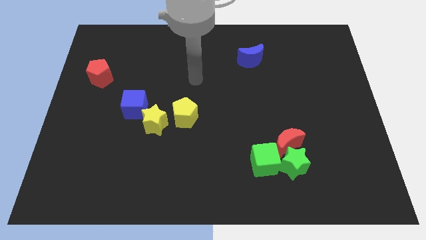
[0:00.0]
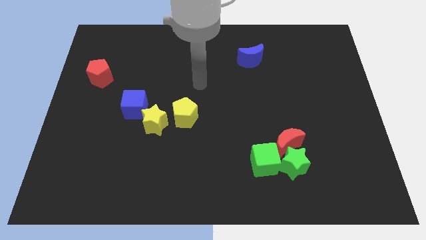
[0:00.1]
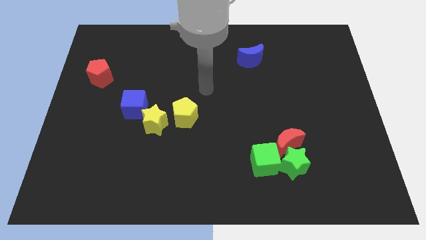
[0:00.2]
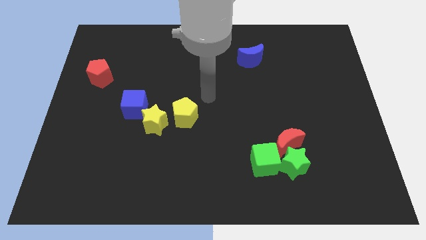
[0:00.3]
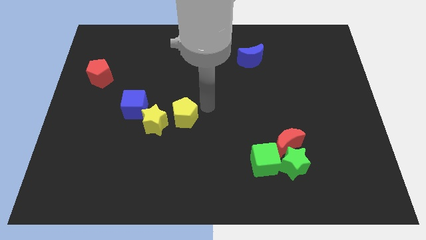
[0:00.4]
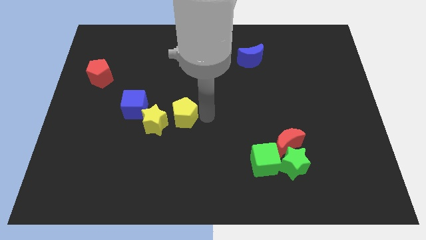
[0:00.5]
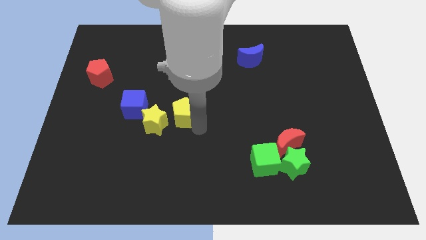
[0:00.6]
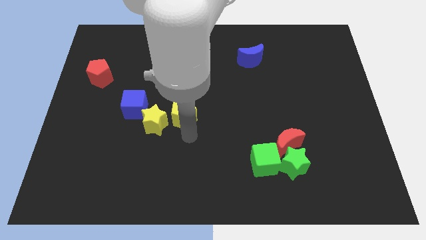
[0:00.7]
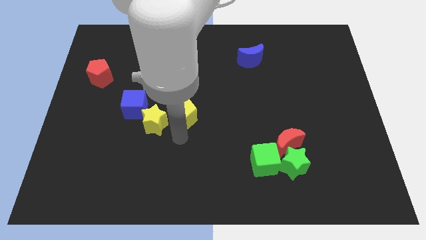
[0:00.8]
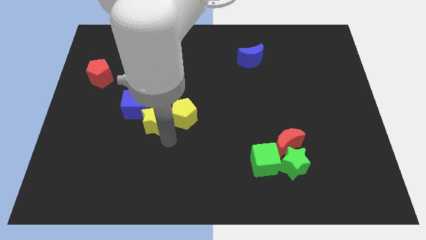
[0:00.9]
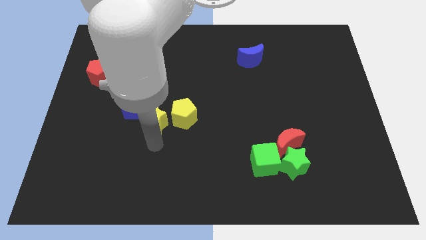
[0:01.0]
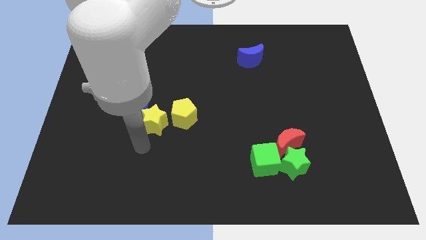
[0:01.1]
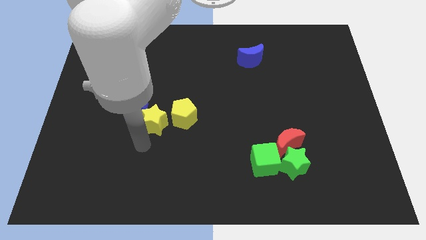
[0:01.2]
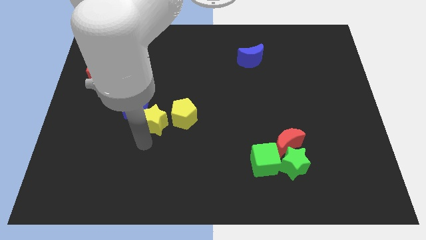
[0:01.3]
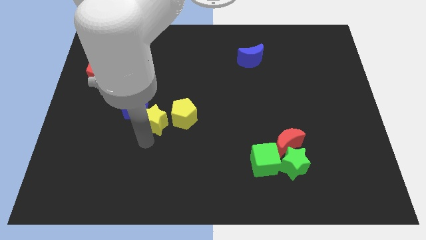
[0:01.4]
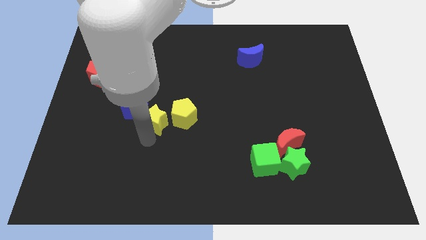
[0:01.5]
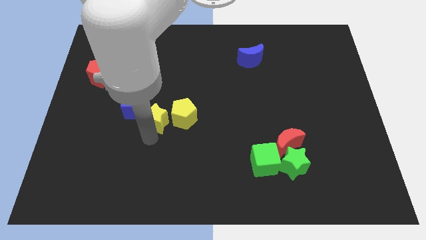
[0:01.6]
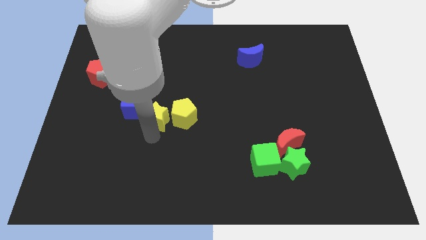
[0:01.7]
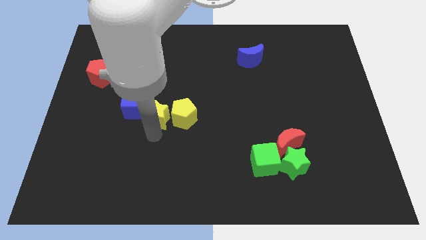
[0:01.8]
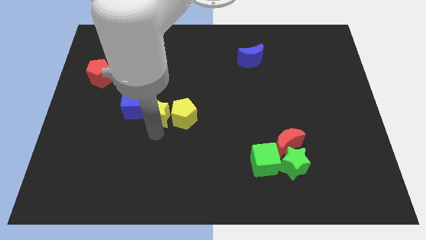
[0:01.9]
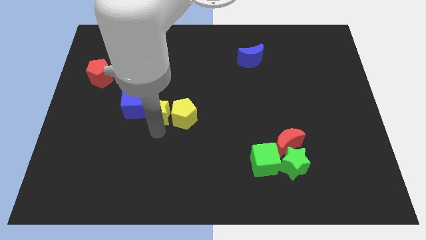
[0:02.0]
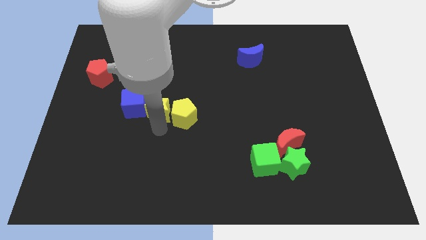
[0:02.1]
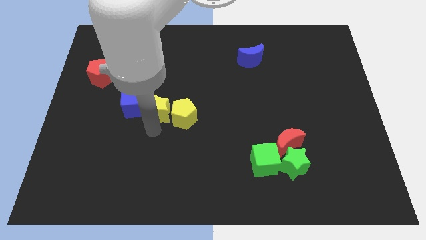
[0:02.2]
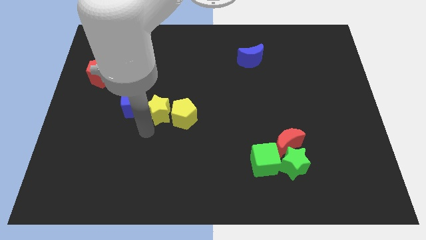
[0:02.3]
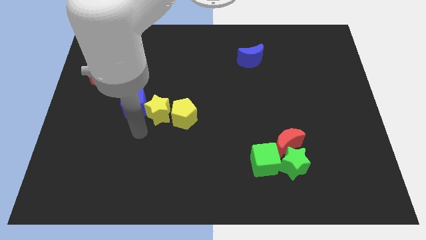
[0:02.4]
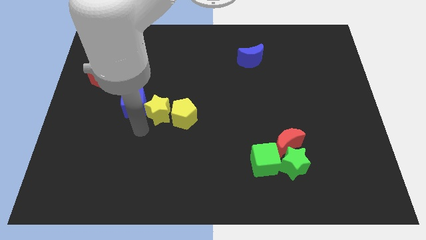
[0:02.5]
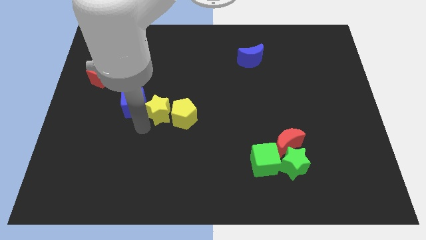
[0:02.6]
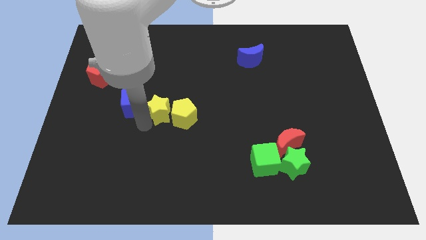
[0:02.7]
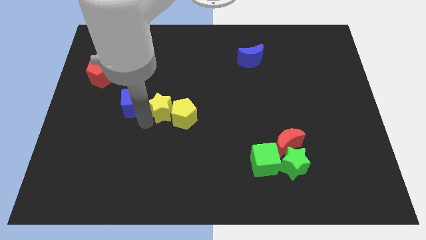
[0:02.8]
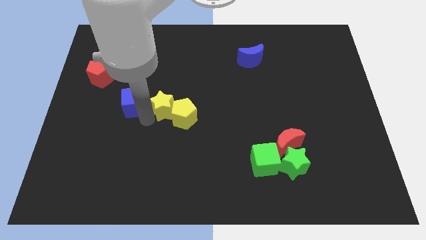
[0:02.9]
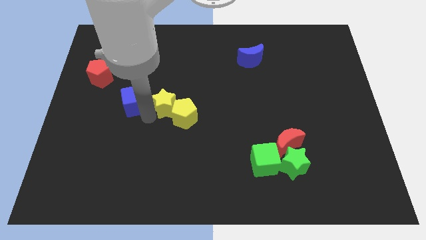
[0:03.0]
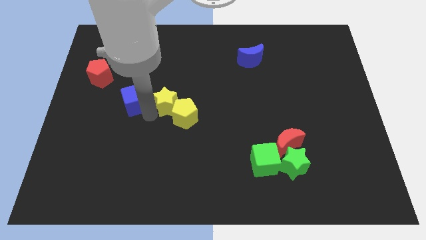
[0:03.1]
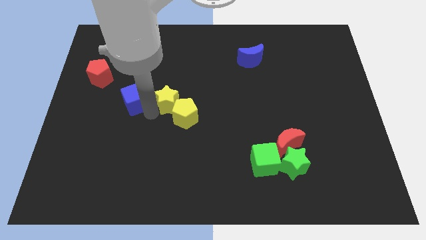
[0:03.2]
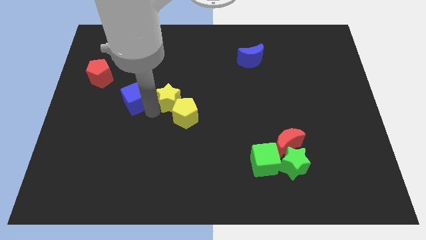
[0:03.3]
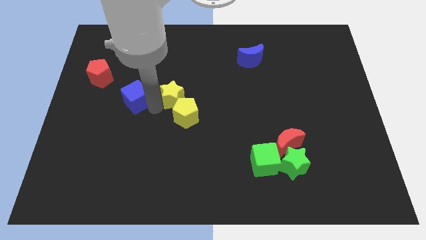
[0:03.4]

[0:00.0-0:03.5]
push the yellow star up and to the right diagonally somewhat

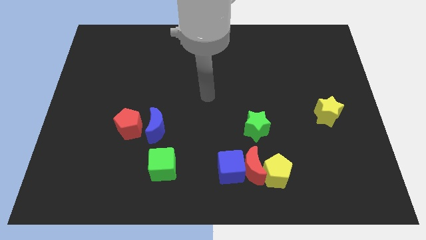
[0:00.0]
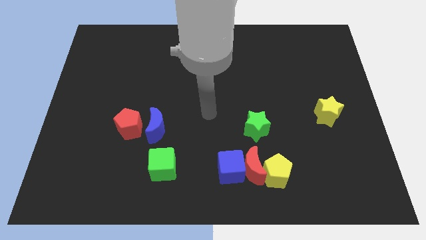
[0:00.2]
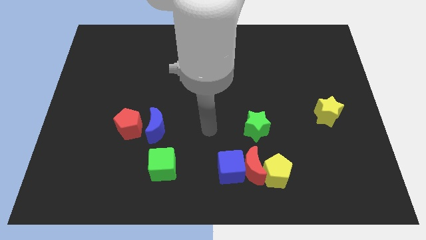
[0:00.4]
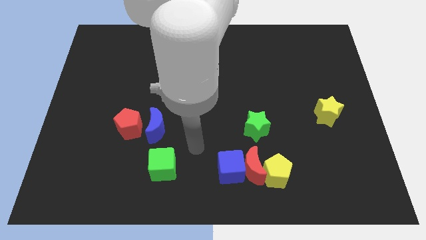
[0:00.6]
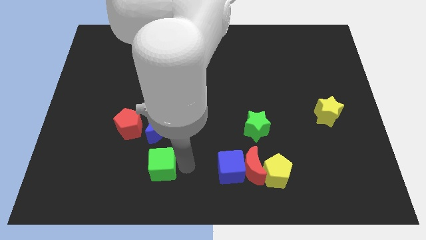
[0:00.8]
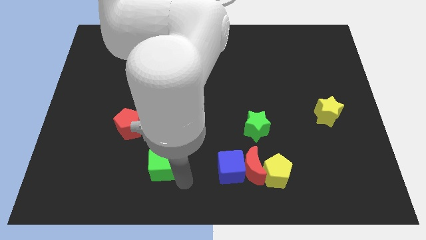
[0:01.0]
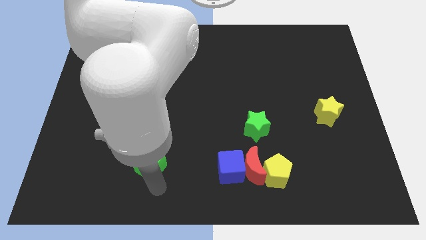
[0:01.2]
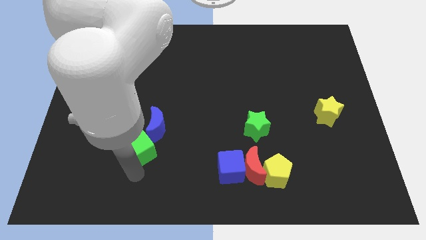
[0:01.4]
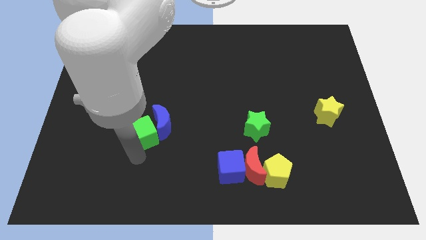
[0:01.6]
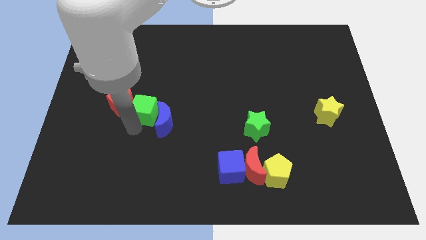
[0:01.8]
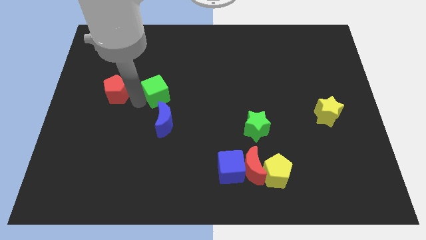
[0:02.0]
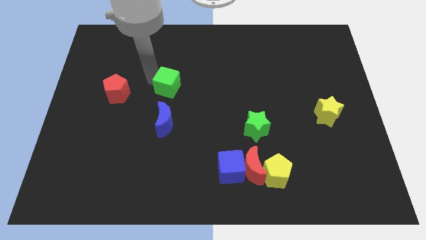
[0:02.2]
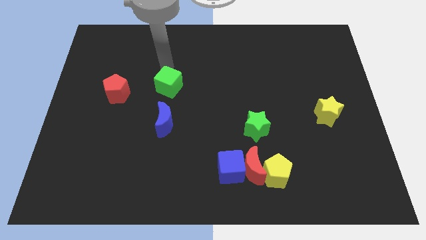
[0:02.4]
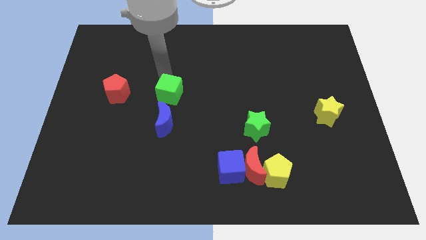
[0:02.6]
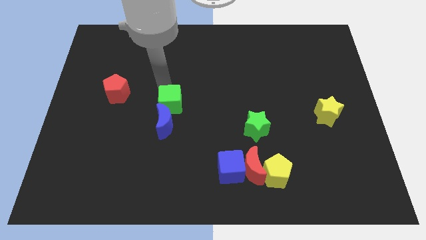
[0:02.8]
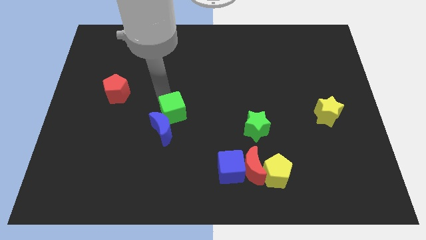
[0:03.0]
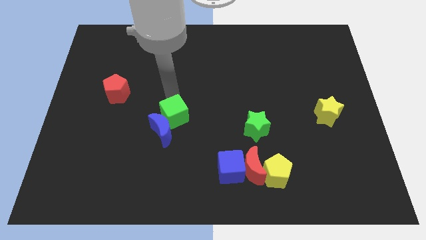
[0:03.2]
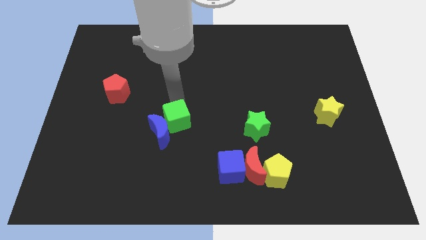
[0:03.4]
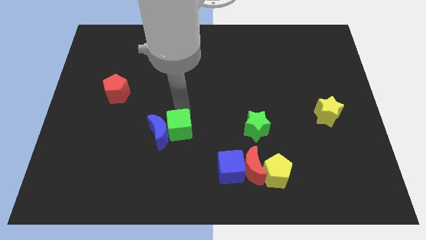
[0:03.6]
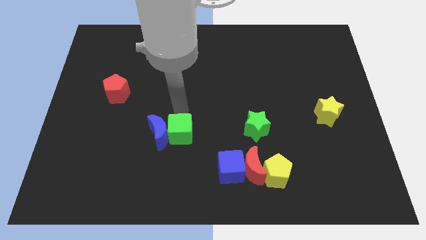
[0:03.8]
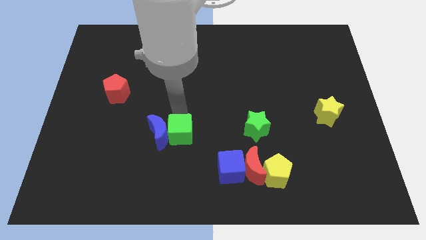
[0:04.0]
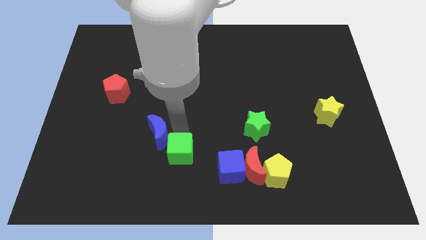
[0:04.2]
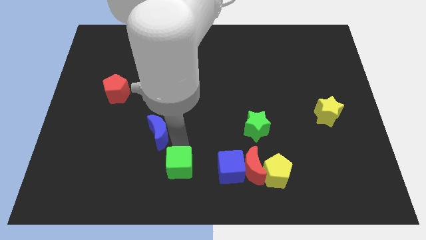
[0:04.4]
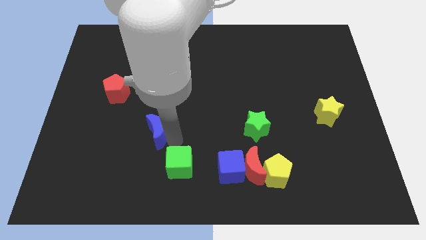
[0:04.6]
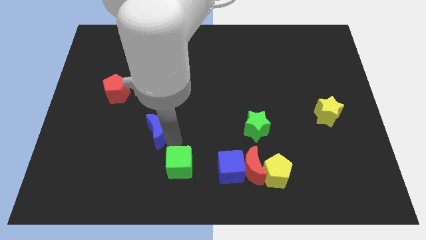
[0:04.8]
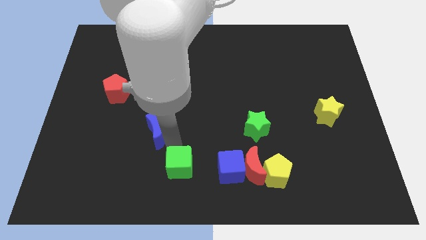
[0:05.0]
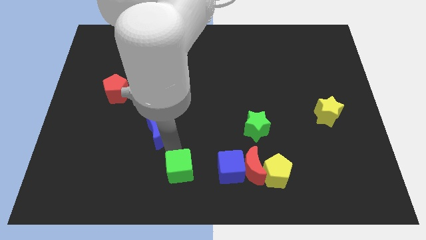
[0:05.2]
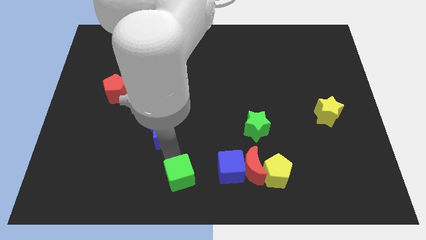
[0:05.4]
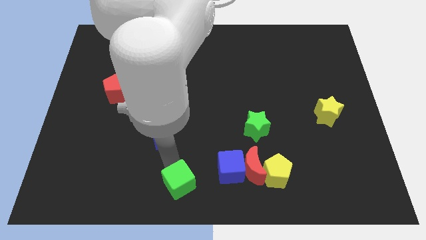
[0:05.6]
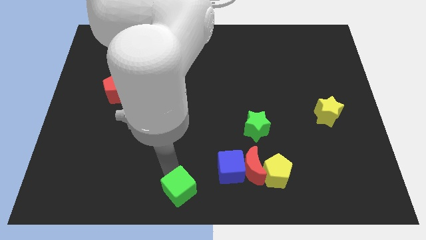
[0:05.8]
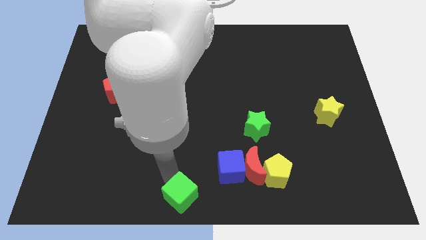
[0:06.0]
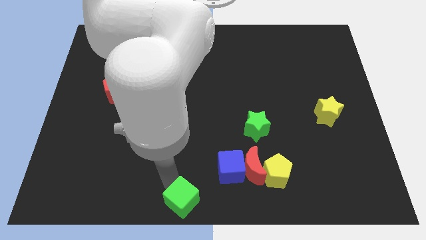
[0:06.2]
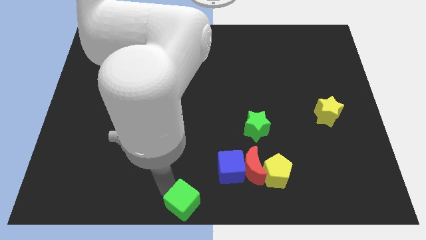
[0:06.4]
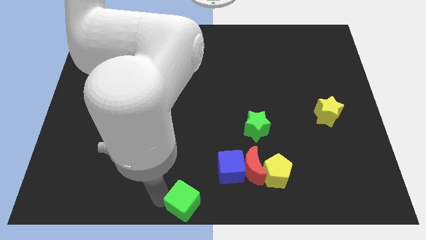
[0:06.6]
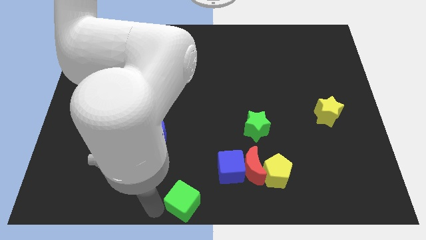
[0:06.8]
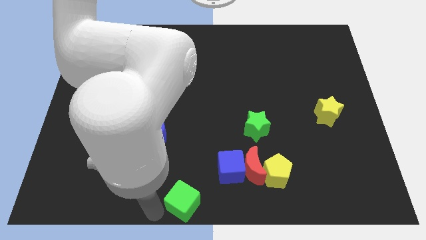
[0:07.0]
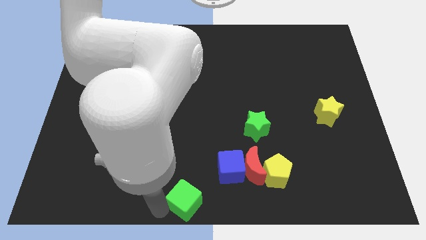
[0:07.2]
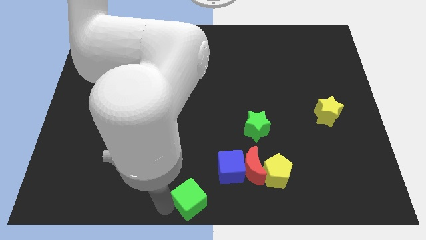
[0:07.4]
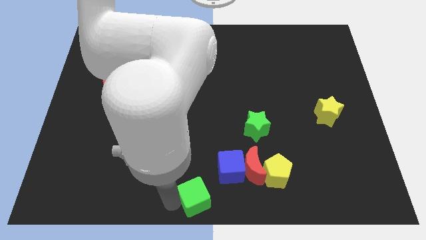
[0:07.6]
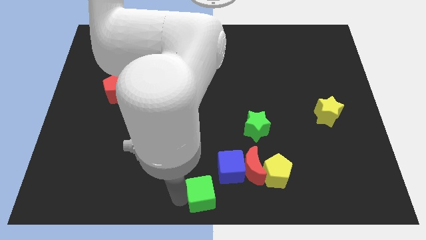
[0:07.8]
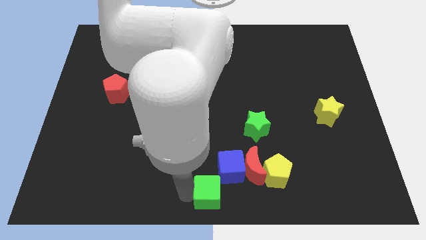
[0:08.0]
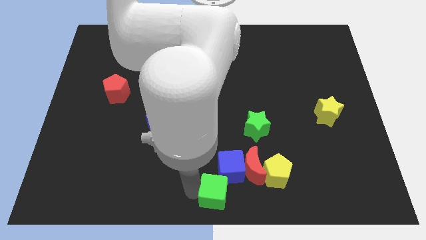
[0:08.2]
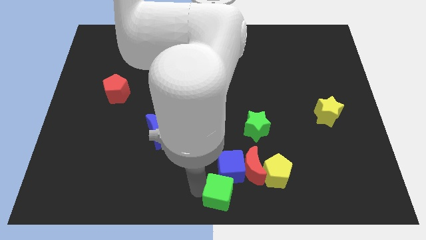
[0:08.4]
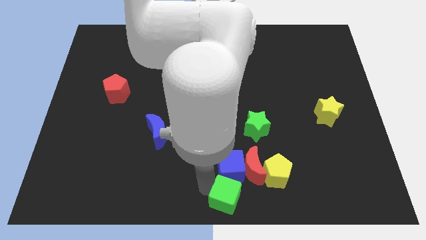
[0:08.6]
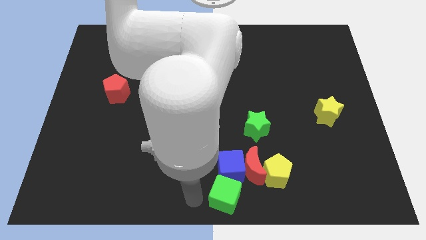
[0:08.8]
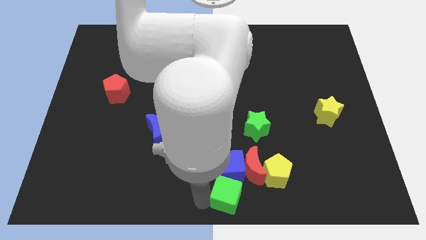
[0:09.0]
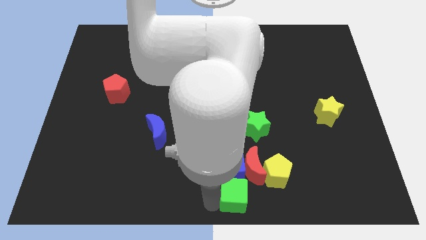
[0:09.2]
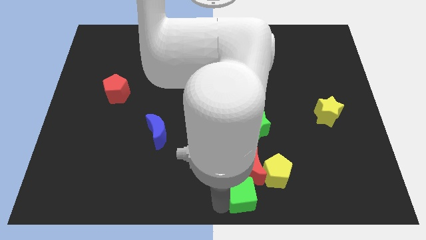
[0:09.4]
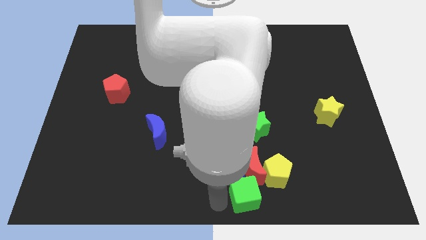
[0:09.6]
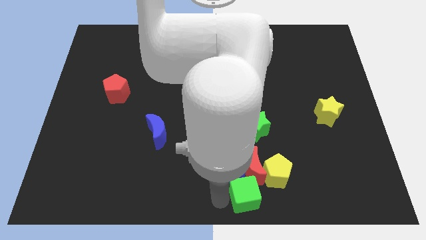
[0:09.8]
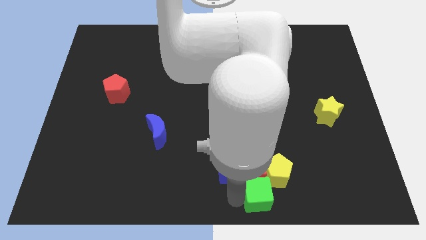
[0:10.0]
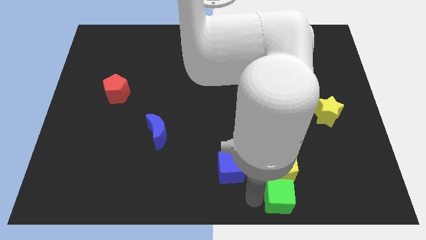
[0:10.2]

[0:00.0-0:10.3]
slide the green cube to the right
